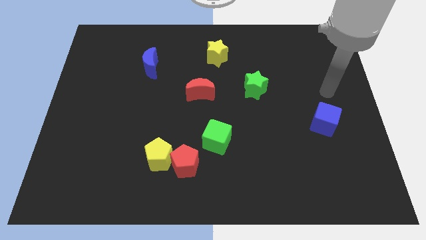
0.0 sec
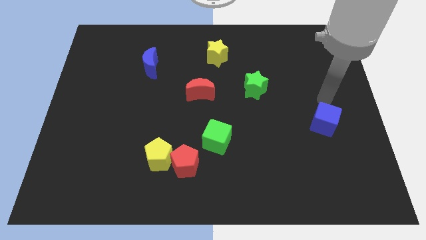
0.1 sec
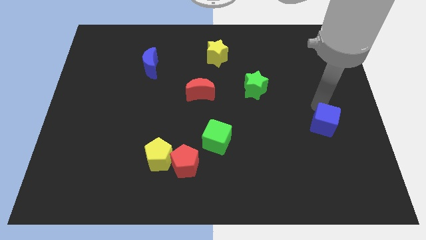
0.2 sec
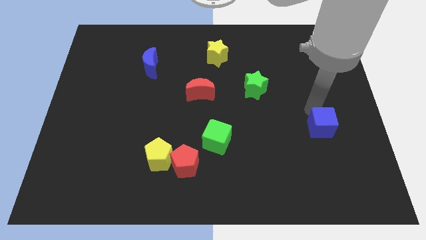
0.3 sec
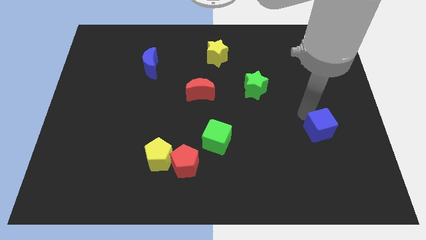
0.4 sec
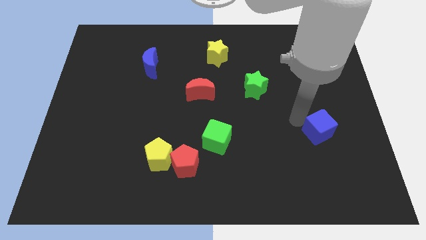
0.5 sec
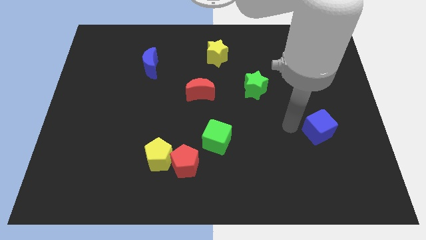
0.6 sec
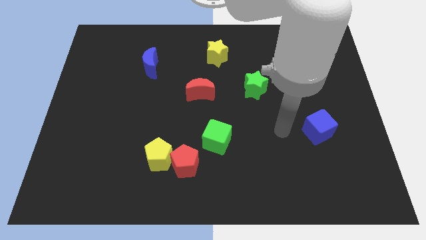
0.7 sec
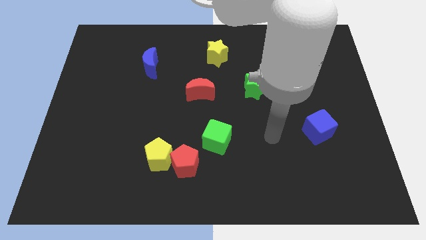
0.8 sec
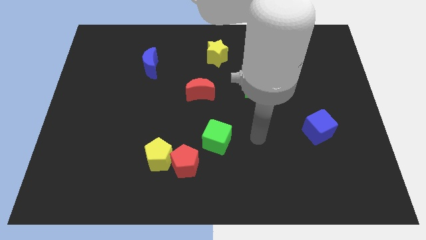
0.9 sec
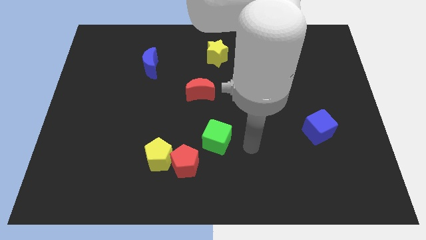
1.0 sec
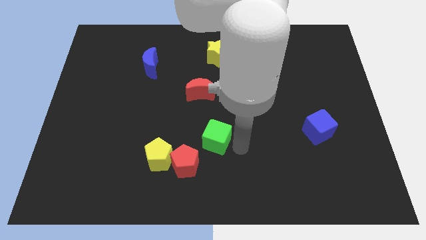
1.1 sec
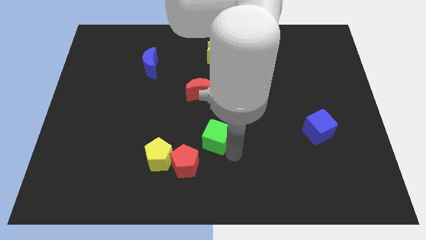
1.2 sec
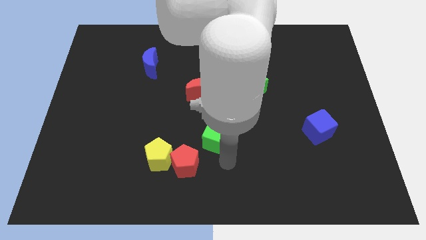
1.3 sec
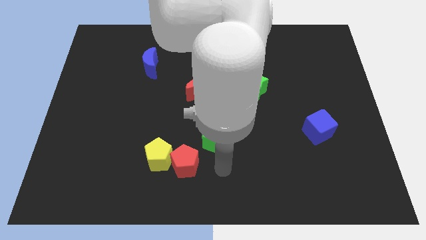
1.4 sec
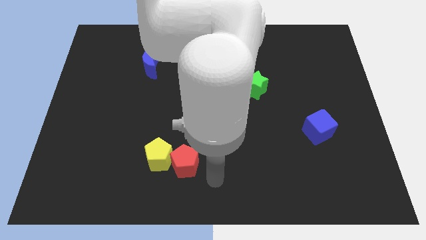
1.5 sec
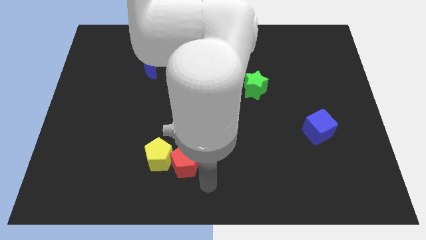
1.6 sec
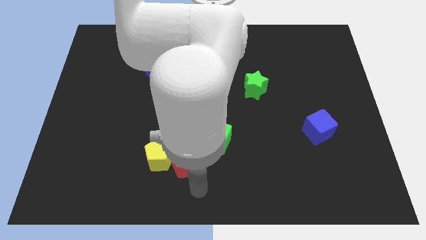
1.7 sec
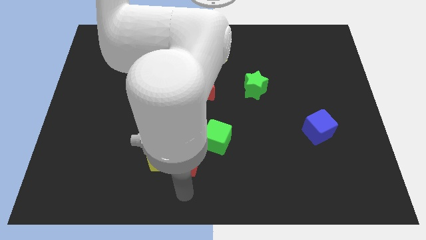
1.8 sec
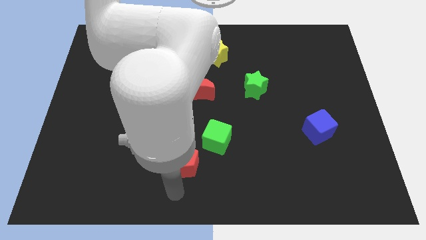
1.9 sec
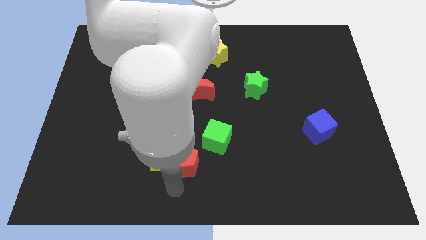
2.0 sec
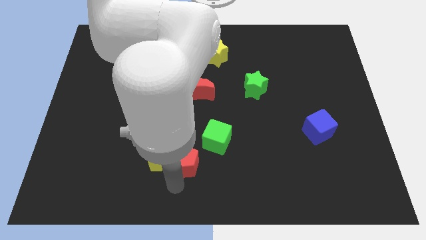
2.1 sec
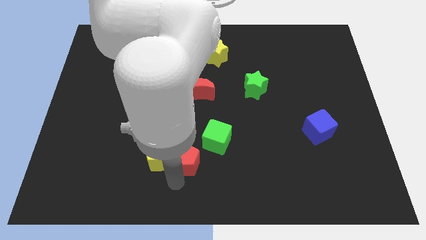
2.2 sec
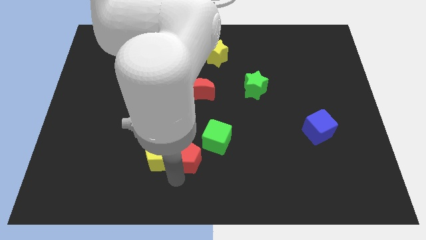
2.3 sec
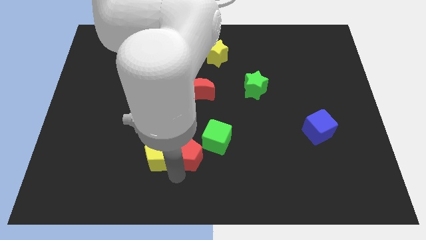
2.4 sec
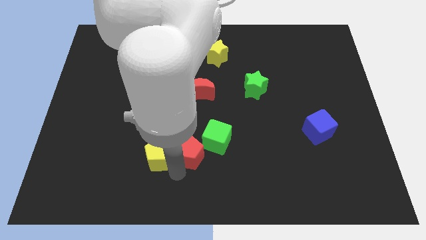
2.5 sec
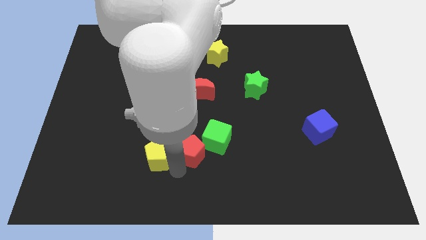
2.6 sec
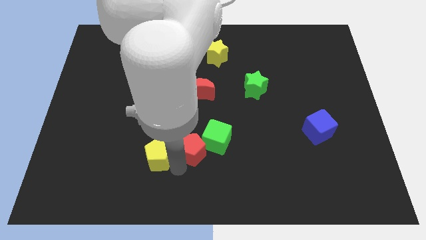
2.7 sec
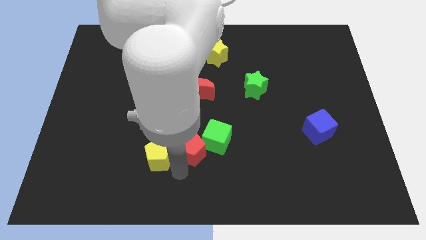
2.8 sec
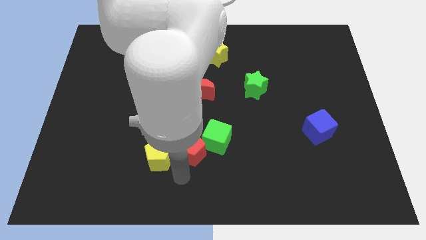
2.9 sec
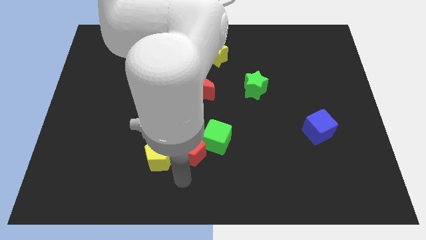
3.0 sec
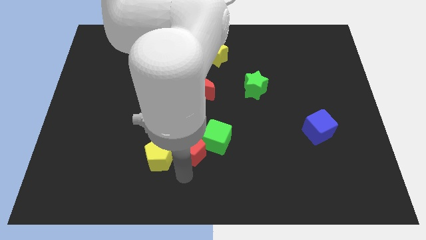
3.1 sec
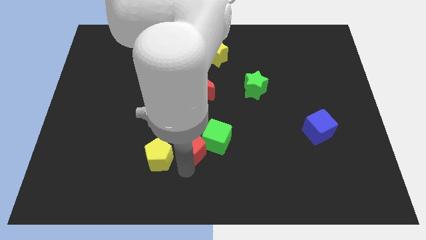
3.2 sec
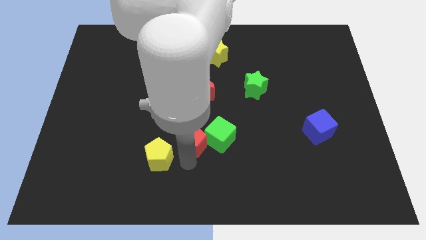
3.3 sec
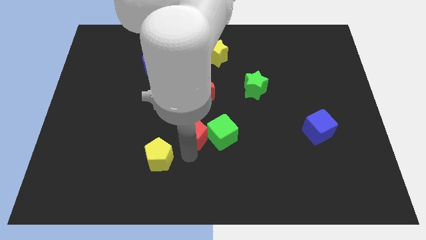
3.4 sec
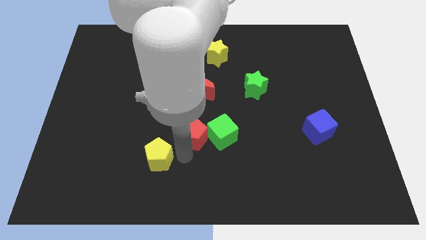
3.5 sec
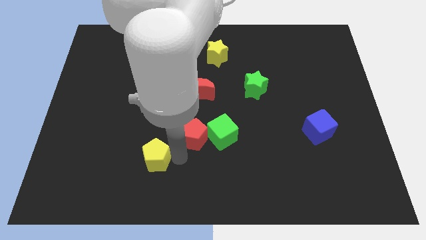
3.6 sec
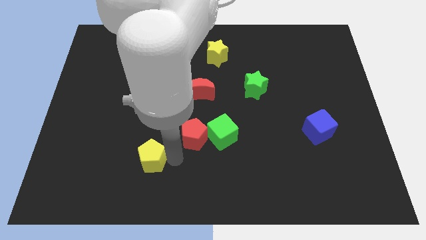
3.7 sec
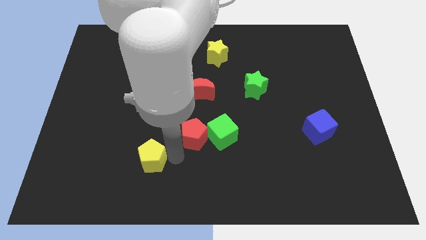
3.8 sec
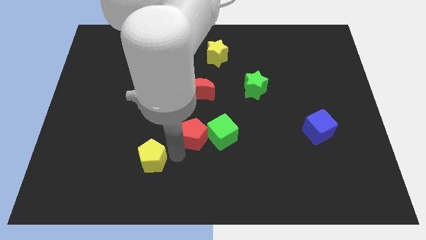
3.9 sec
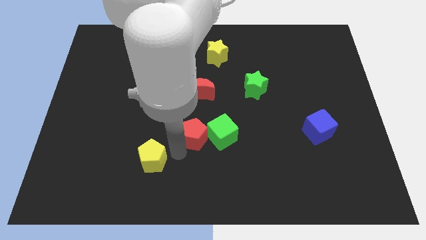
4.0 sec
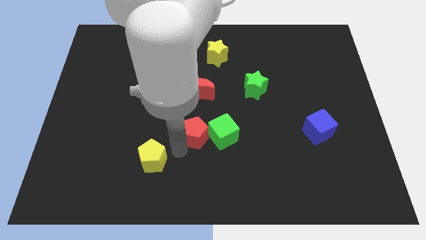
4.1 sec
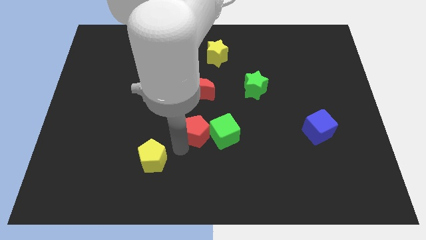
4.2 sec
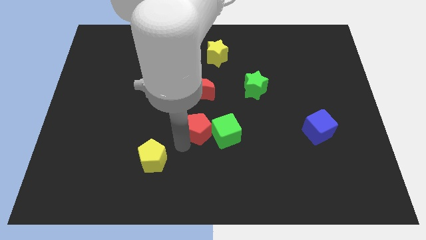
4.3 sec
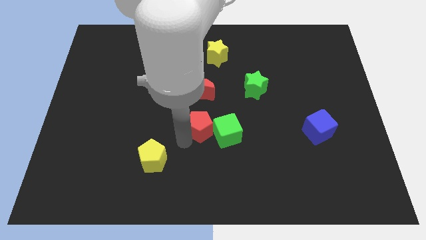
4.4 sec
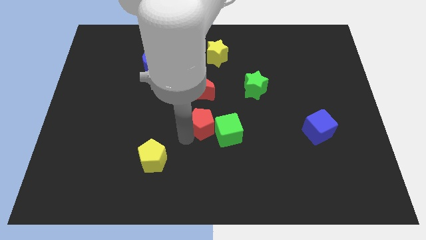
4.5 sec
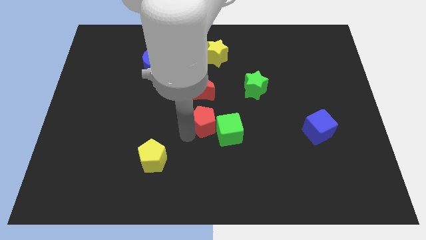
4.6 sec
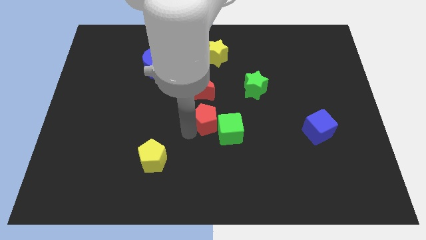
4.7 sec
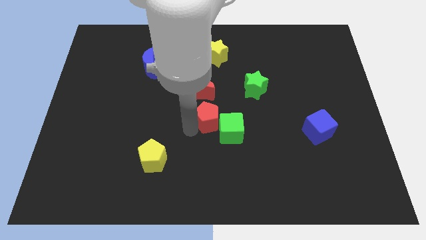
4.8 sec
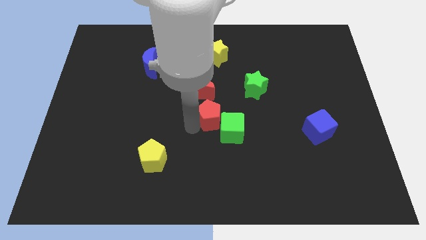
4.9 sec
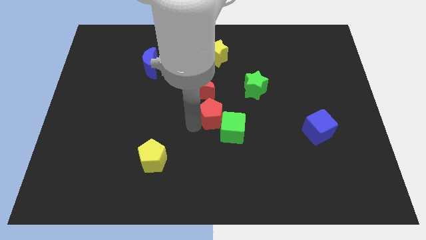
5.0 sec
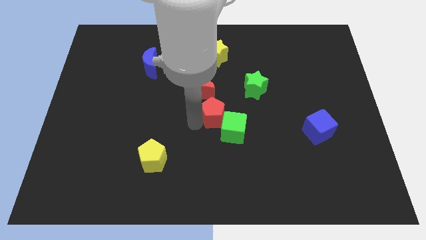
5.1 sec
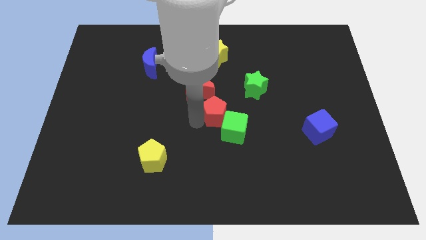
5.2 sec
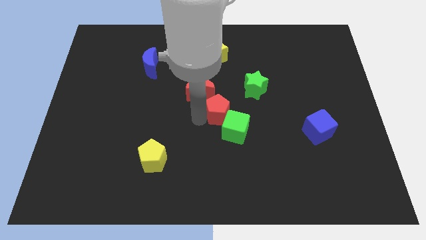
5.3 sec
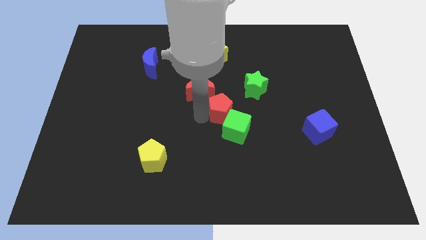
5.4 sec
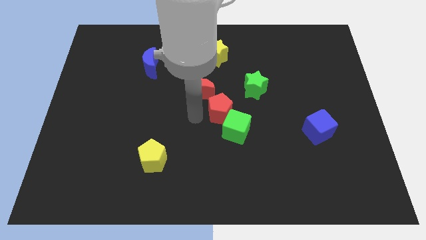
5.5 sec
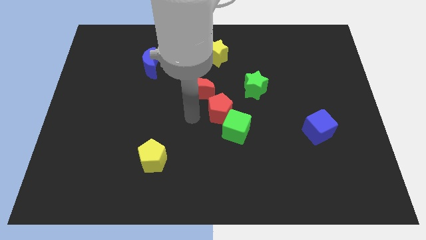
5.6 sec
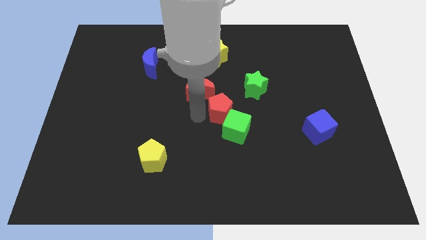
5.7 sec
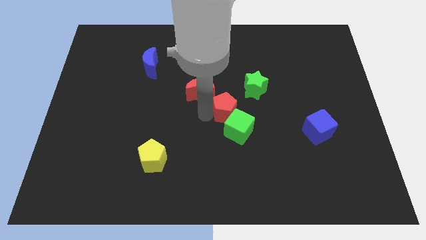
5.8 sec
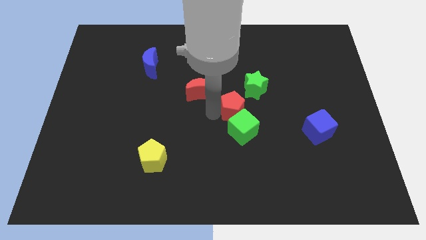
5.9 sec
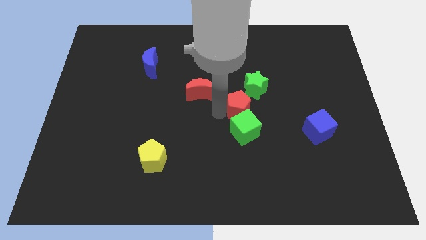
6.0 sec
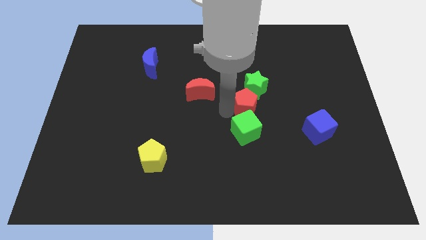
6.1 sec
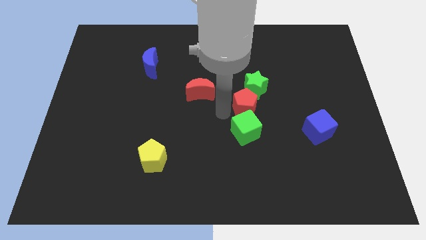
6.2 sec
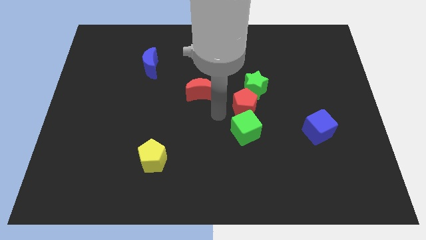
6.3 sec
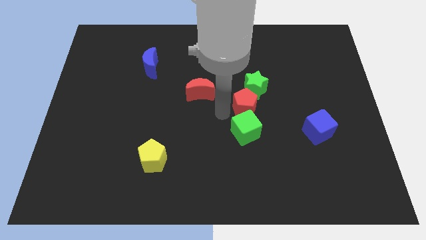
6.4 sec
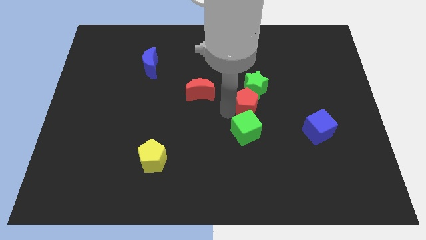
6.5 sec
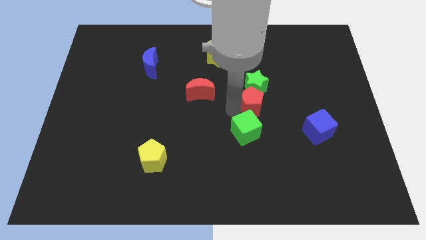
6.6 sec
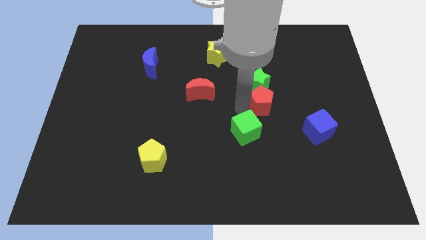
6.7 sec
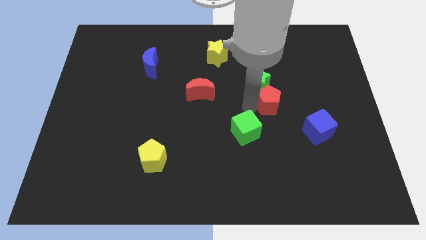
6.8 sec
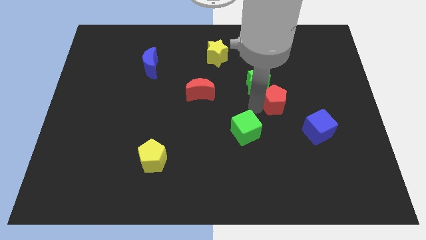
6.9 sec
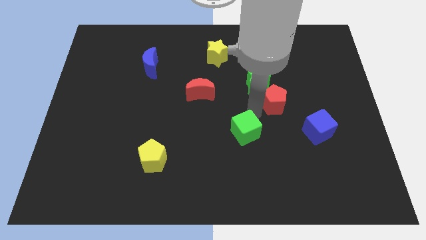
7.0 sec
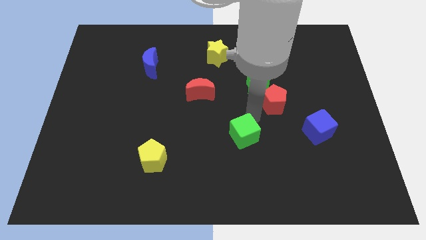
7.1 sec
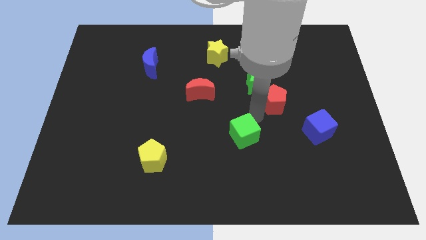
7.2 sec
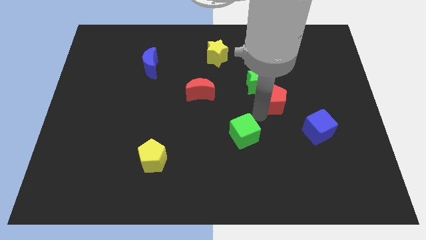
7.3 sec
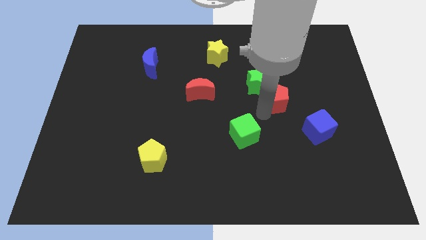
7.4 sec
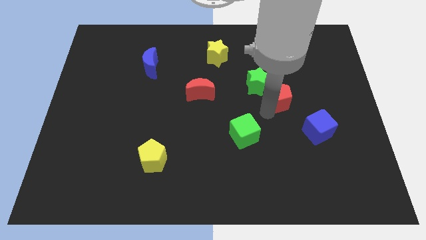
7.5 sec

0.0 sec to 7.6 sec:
move the red pentagon right of the green star
